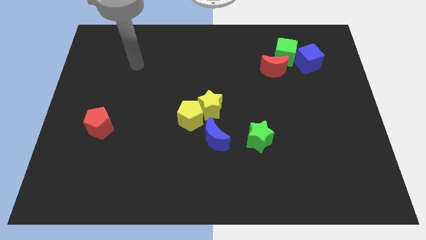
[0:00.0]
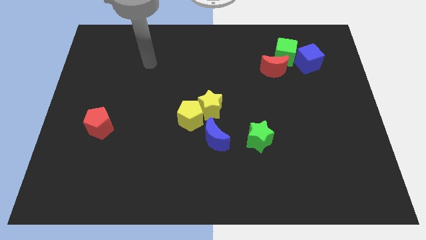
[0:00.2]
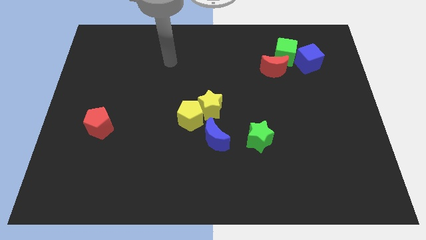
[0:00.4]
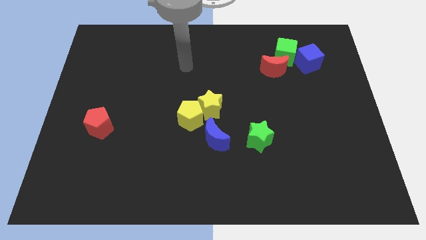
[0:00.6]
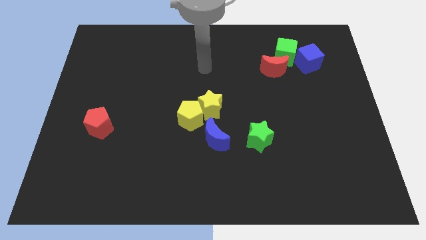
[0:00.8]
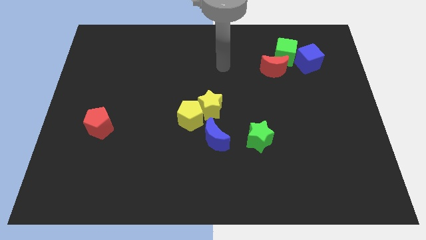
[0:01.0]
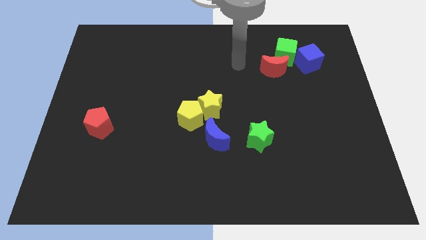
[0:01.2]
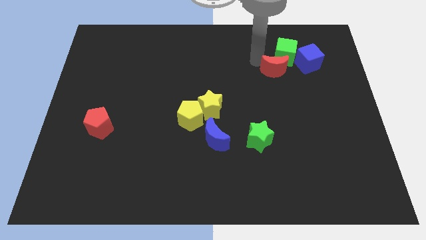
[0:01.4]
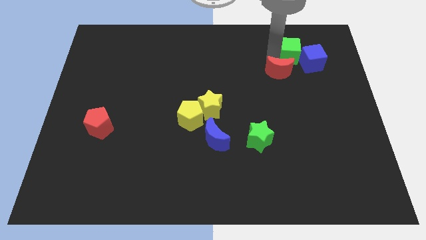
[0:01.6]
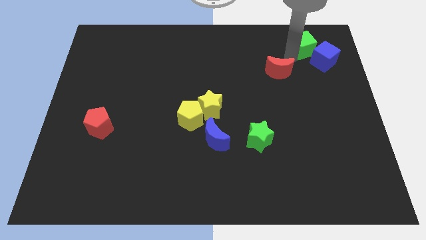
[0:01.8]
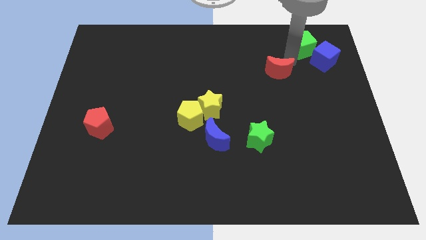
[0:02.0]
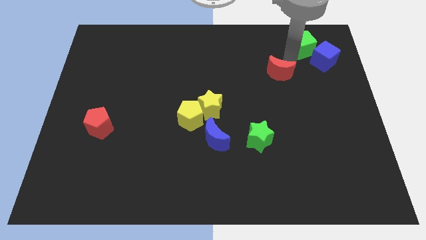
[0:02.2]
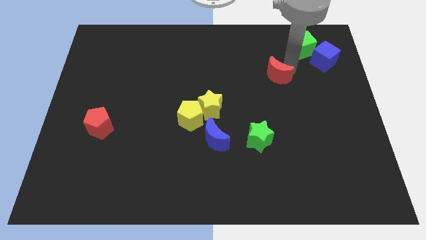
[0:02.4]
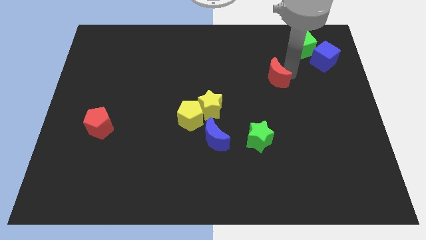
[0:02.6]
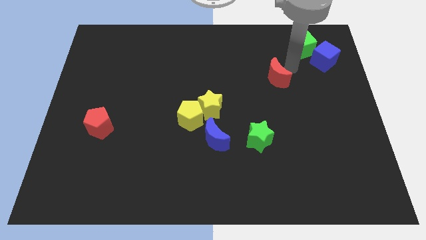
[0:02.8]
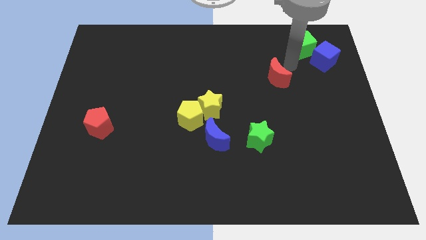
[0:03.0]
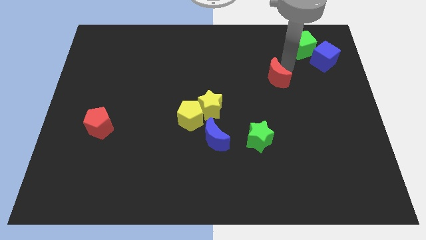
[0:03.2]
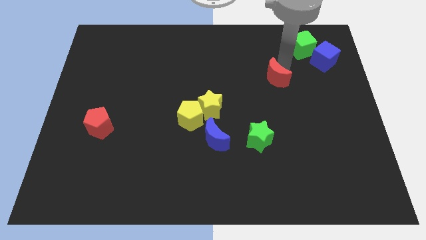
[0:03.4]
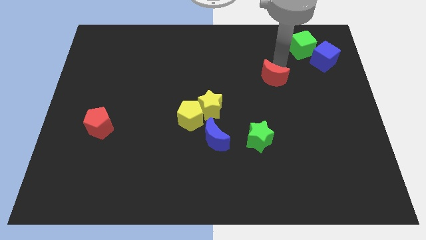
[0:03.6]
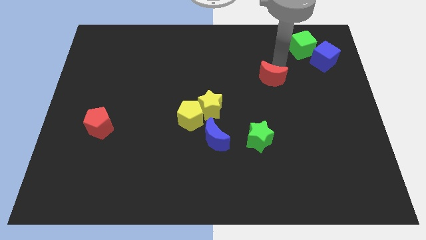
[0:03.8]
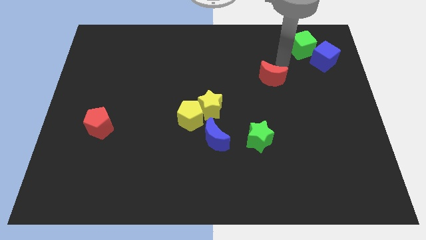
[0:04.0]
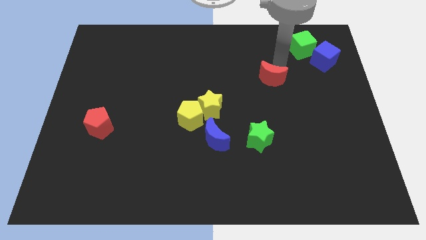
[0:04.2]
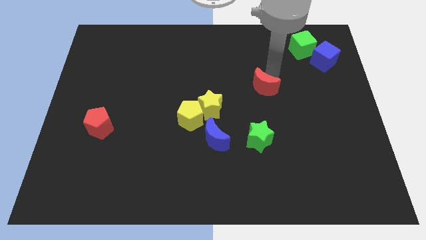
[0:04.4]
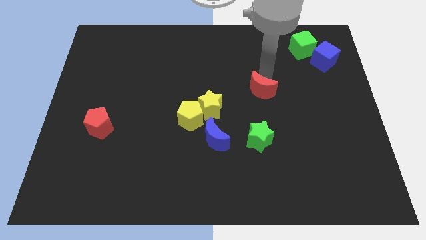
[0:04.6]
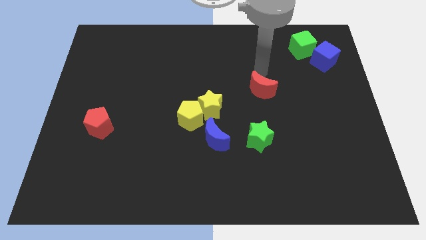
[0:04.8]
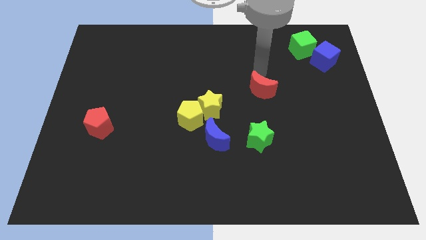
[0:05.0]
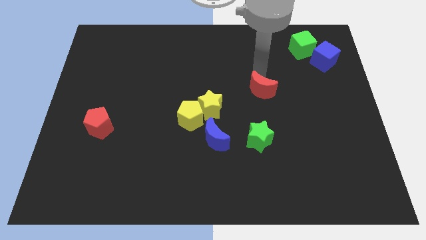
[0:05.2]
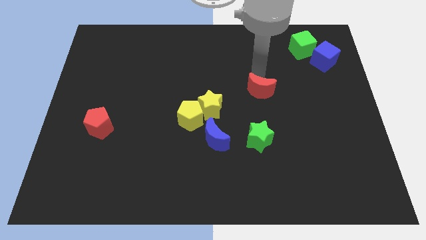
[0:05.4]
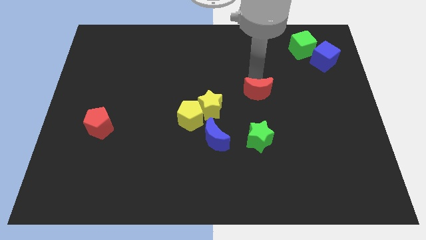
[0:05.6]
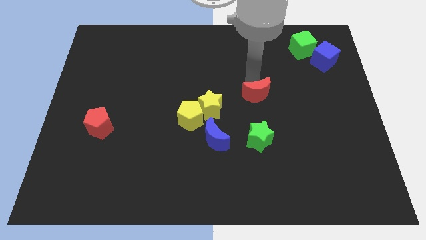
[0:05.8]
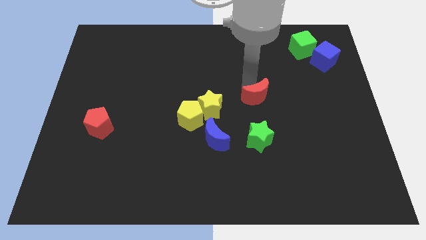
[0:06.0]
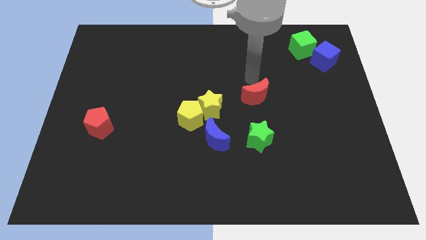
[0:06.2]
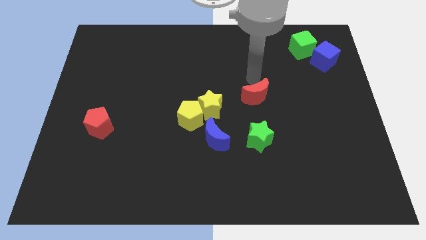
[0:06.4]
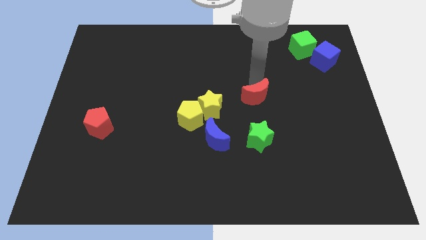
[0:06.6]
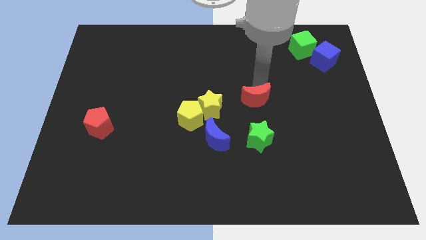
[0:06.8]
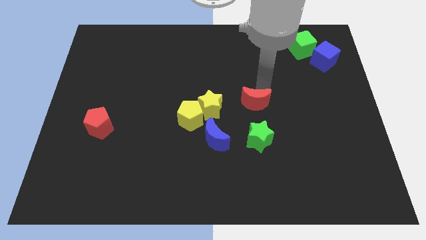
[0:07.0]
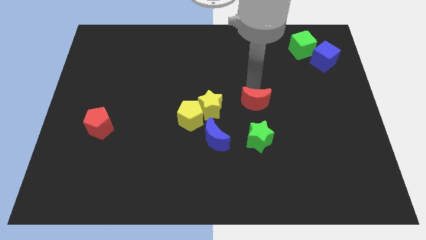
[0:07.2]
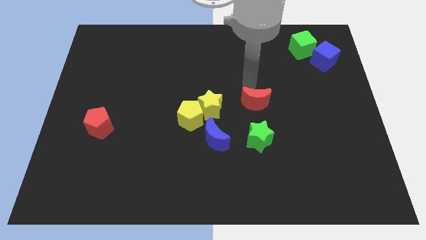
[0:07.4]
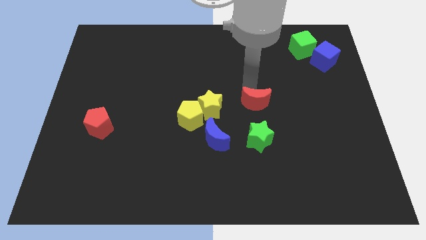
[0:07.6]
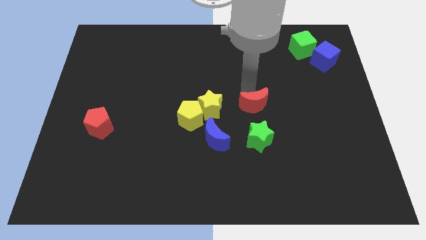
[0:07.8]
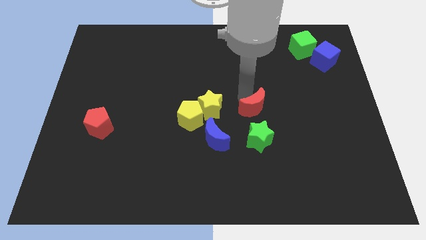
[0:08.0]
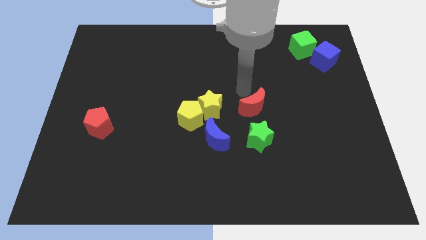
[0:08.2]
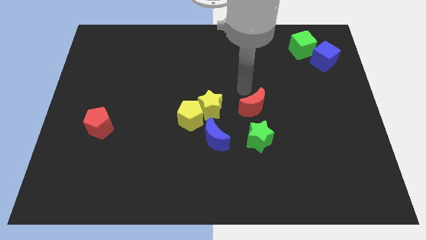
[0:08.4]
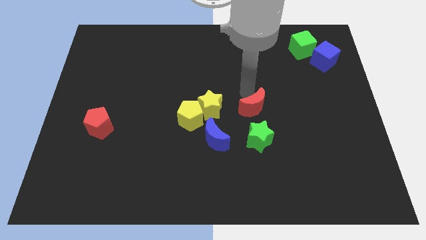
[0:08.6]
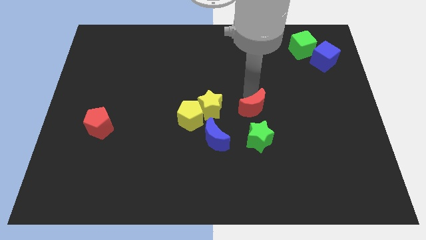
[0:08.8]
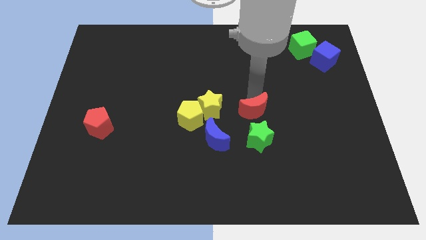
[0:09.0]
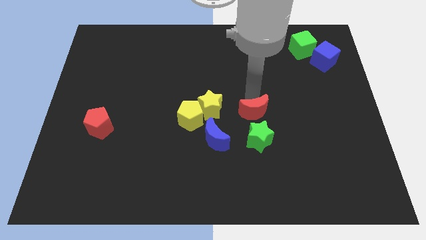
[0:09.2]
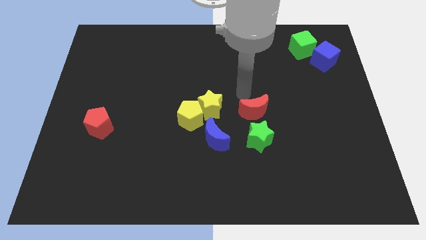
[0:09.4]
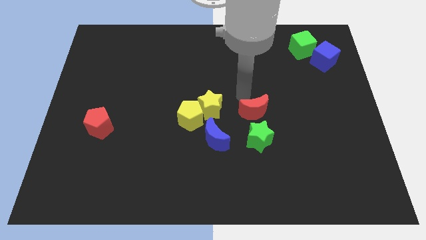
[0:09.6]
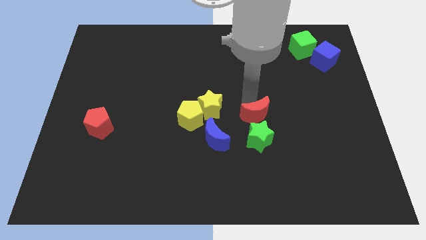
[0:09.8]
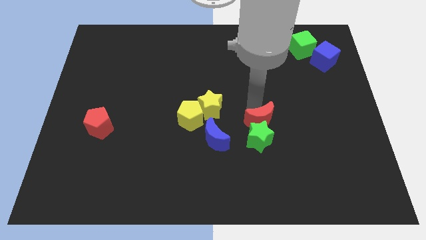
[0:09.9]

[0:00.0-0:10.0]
slide the red moon to the green star

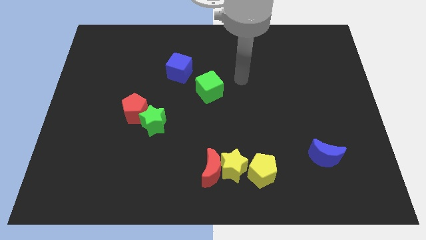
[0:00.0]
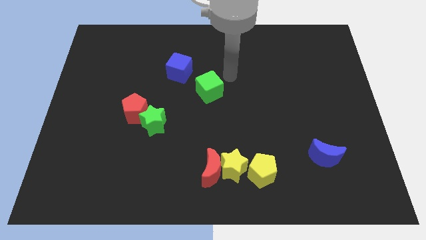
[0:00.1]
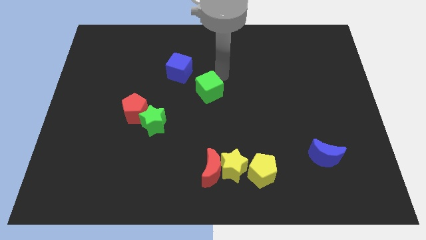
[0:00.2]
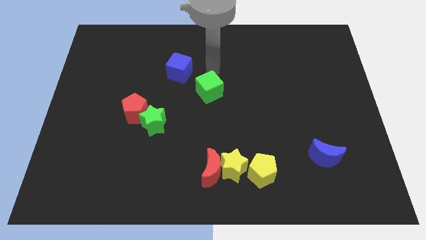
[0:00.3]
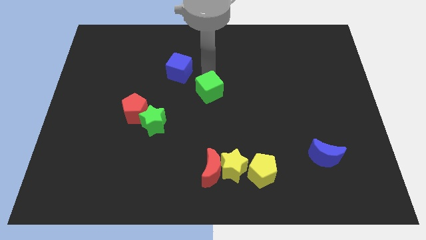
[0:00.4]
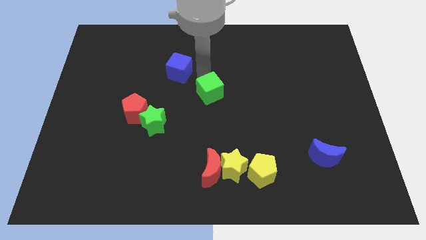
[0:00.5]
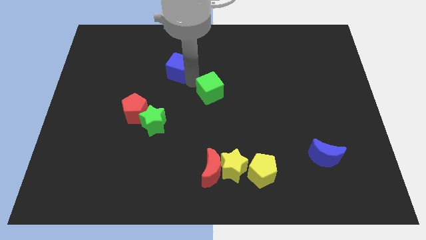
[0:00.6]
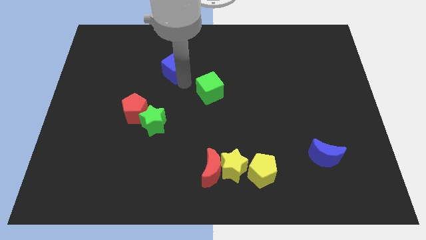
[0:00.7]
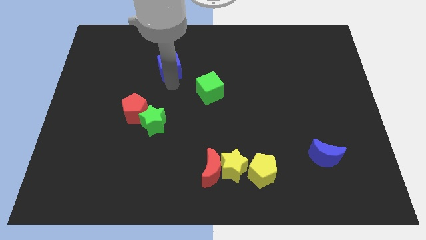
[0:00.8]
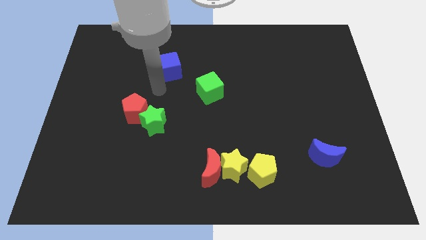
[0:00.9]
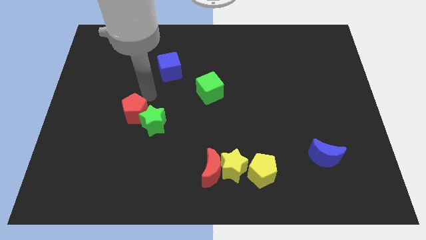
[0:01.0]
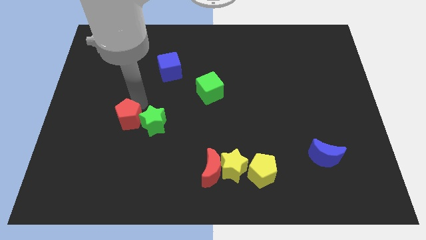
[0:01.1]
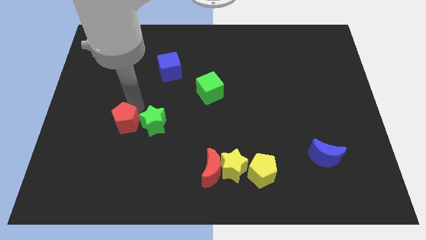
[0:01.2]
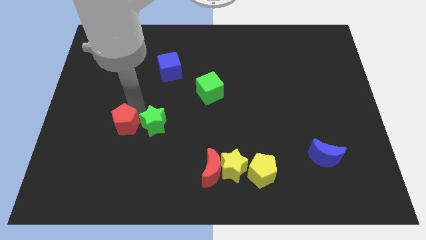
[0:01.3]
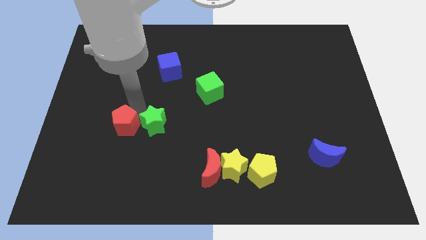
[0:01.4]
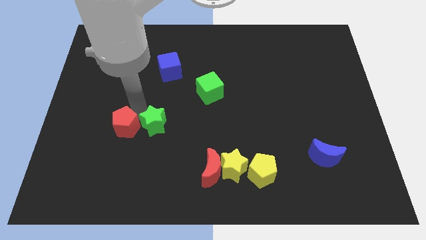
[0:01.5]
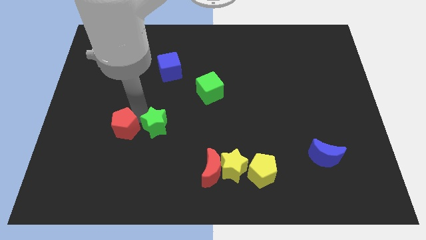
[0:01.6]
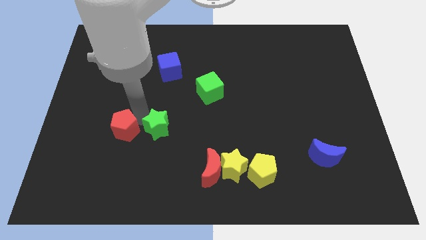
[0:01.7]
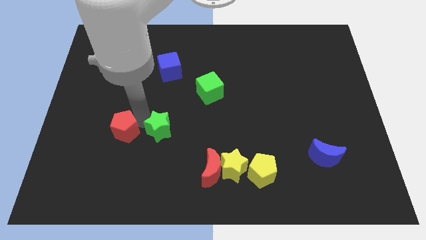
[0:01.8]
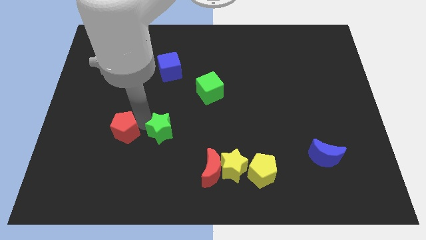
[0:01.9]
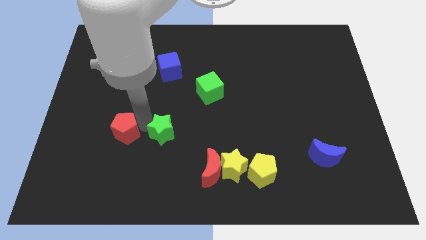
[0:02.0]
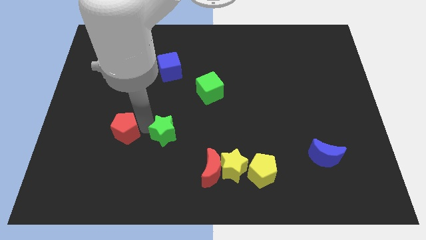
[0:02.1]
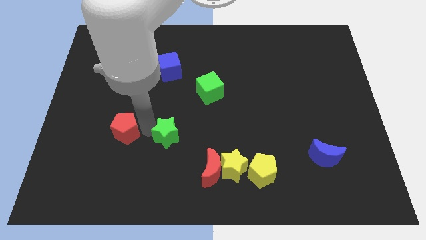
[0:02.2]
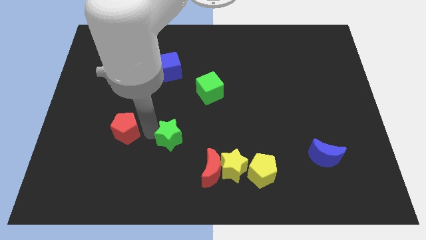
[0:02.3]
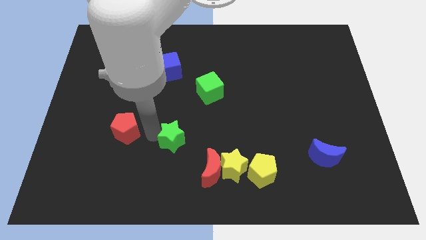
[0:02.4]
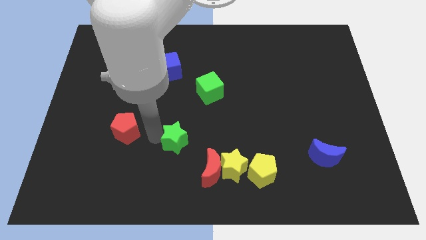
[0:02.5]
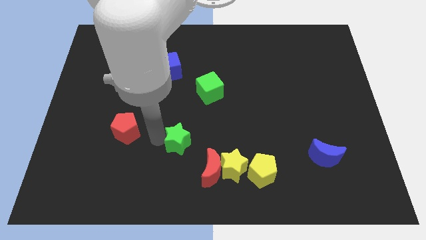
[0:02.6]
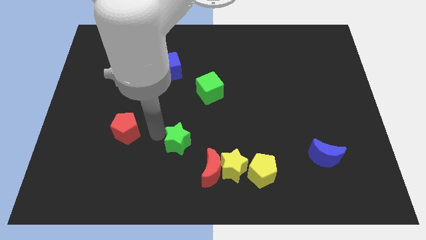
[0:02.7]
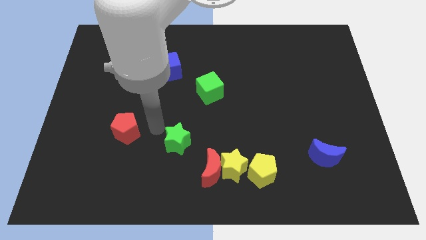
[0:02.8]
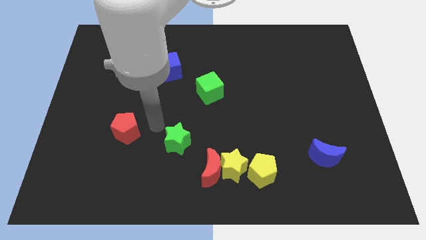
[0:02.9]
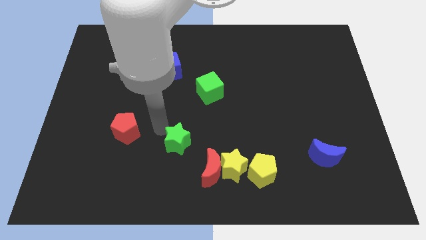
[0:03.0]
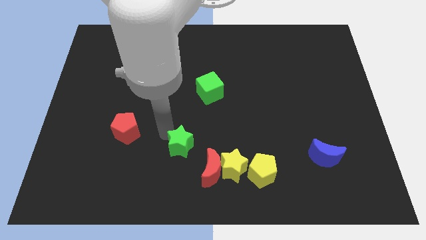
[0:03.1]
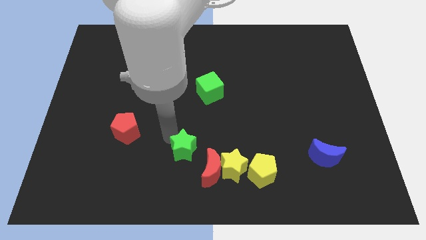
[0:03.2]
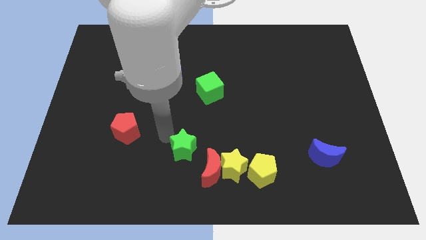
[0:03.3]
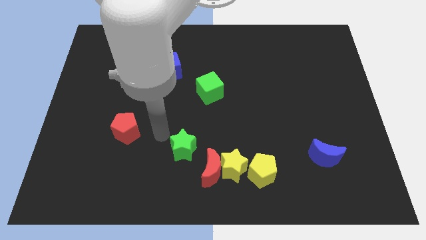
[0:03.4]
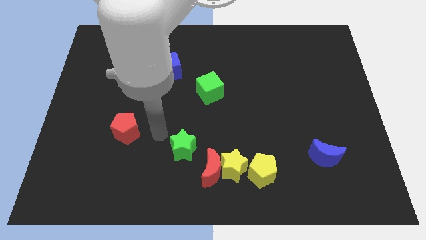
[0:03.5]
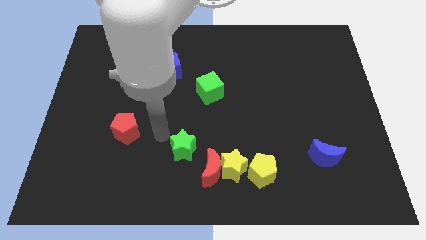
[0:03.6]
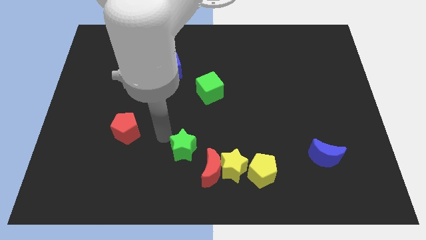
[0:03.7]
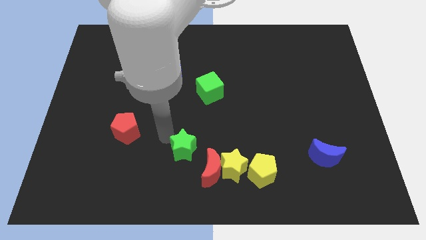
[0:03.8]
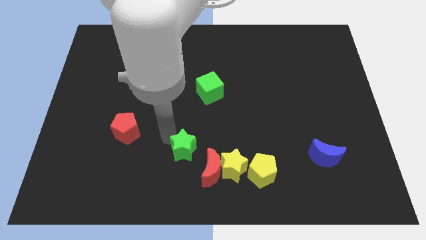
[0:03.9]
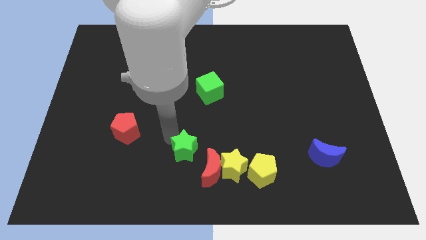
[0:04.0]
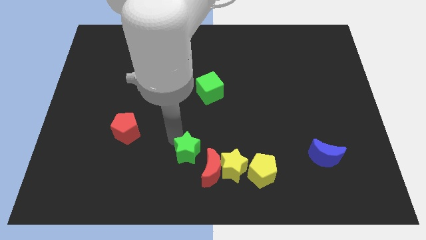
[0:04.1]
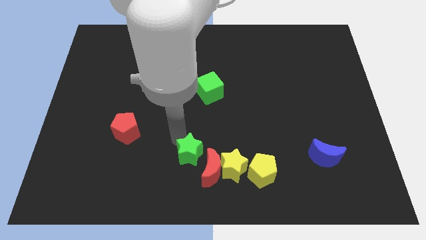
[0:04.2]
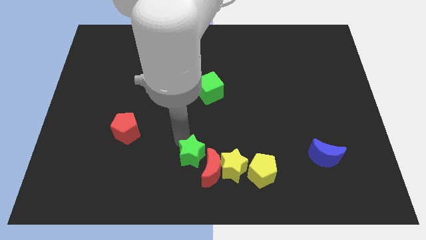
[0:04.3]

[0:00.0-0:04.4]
slide the green star to the red moon
